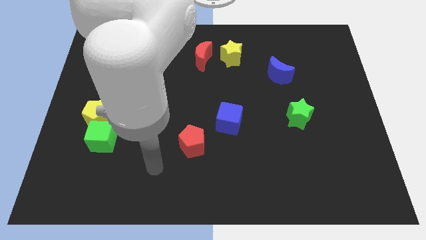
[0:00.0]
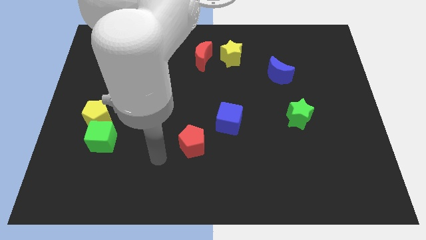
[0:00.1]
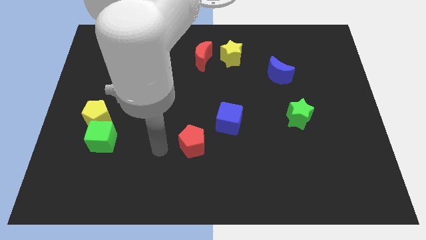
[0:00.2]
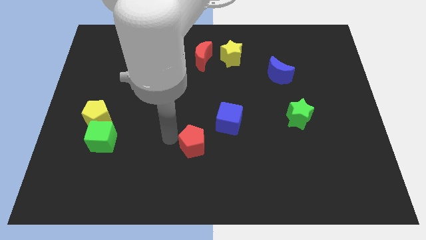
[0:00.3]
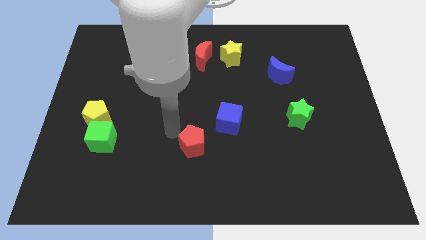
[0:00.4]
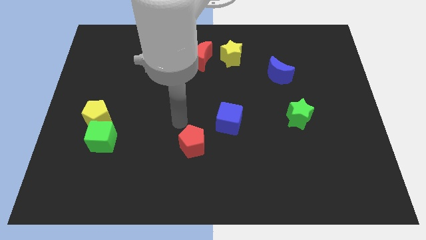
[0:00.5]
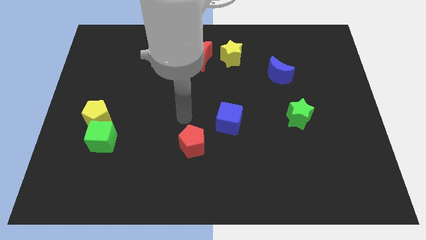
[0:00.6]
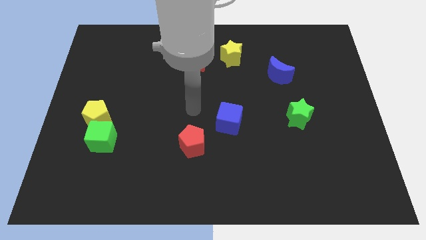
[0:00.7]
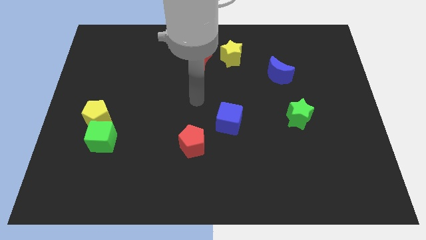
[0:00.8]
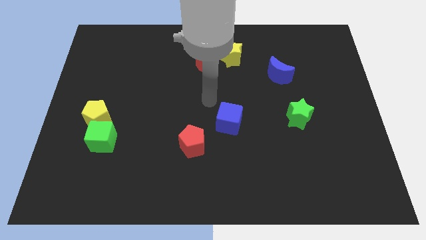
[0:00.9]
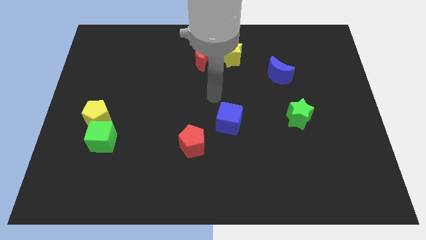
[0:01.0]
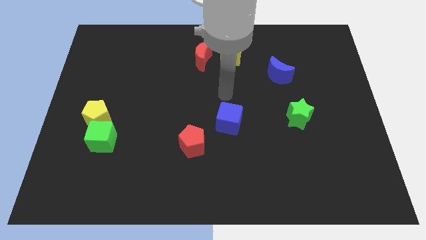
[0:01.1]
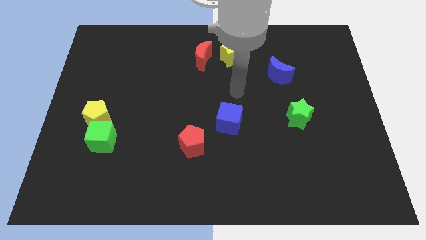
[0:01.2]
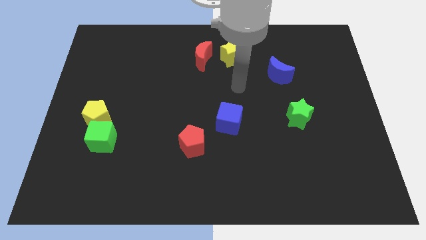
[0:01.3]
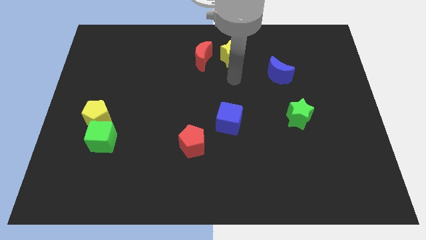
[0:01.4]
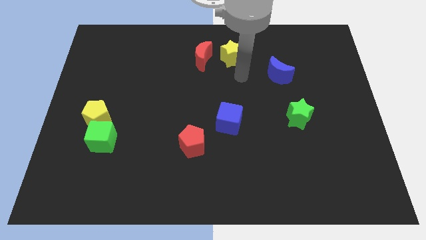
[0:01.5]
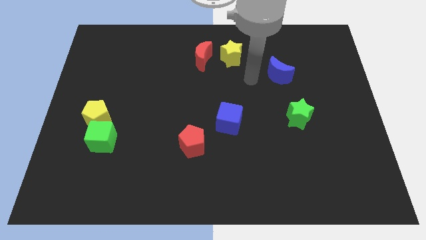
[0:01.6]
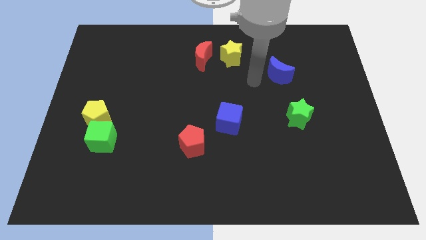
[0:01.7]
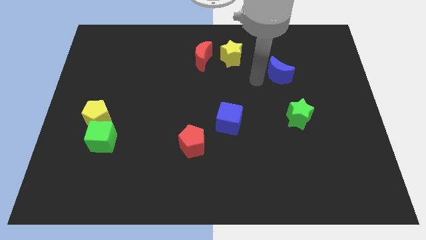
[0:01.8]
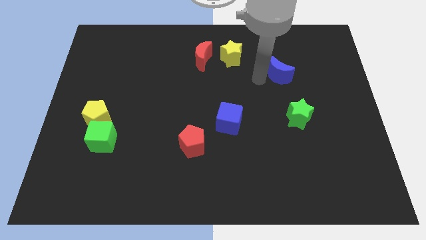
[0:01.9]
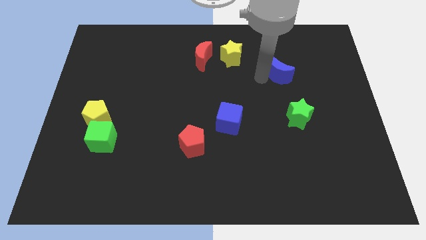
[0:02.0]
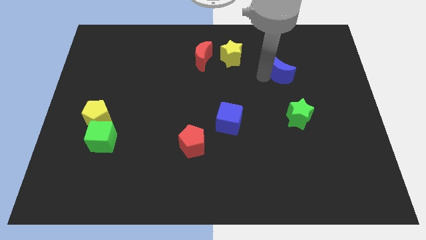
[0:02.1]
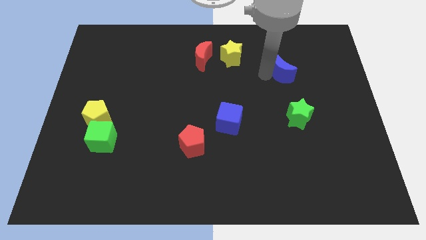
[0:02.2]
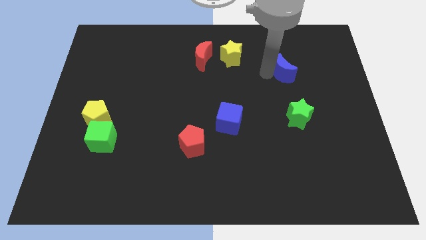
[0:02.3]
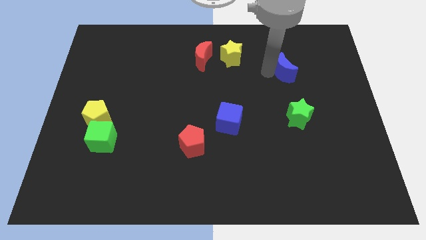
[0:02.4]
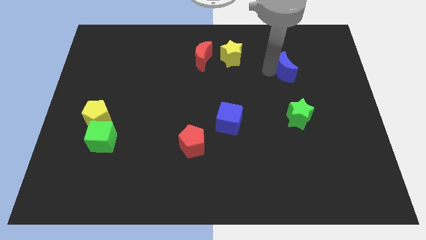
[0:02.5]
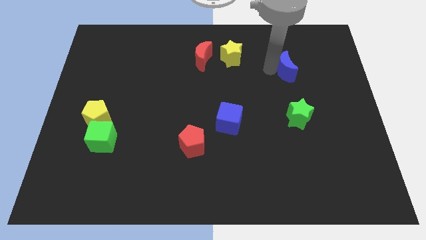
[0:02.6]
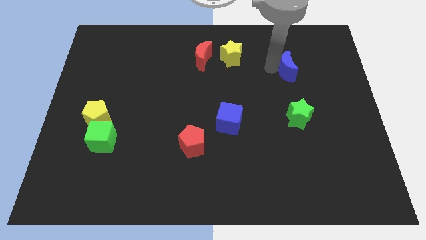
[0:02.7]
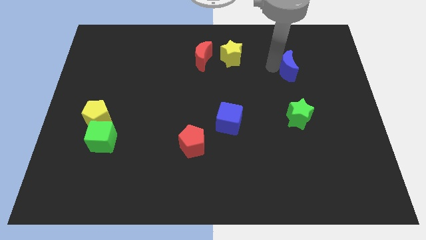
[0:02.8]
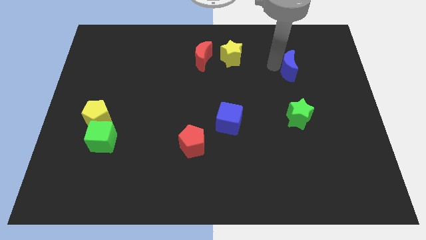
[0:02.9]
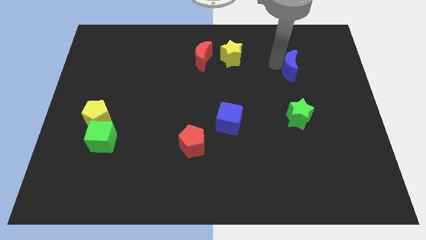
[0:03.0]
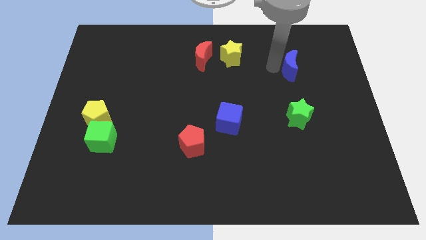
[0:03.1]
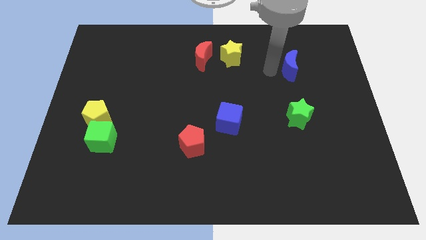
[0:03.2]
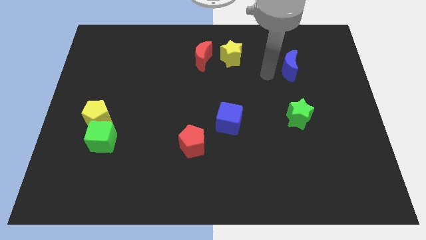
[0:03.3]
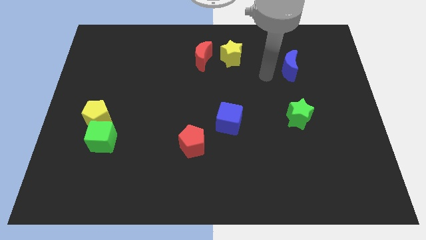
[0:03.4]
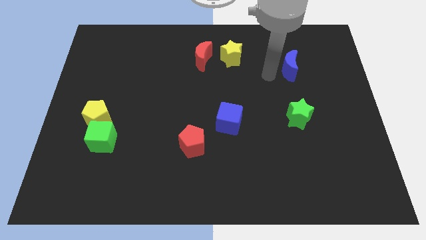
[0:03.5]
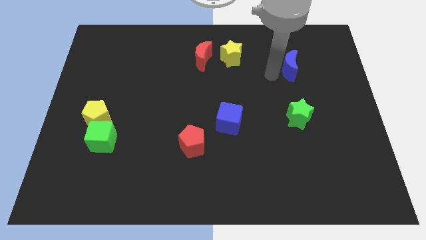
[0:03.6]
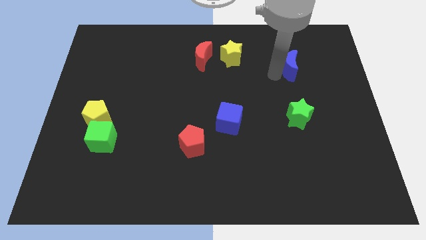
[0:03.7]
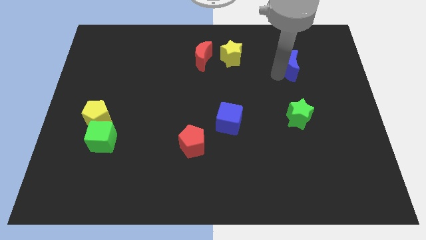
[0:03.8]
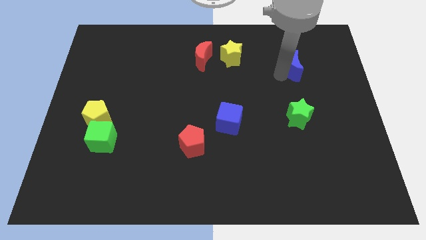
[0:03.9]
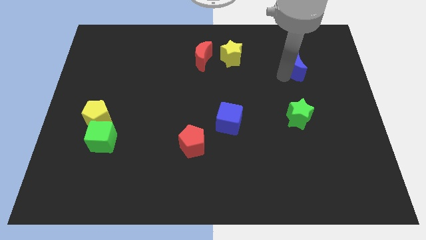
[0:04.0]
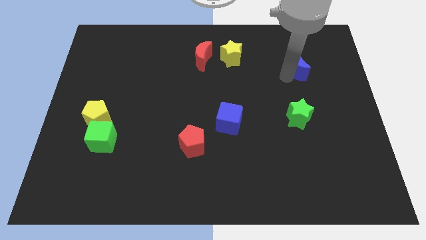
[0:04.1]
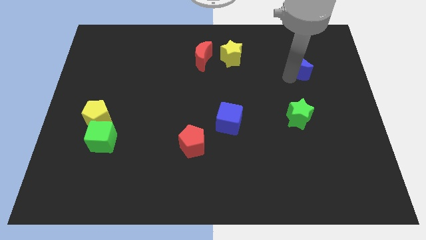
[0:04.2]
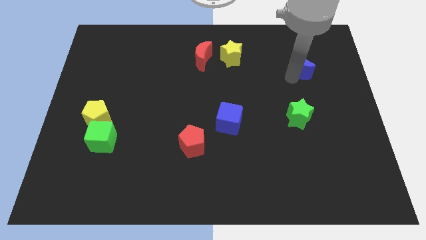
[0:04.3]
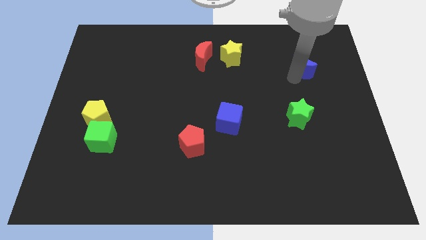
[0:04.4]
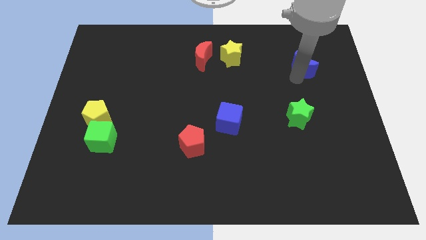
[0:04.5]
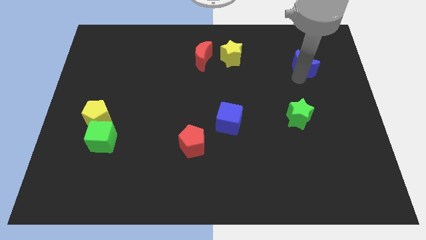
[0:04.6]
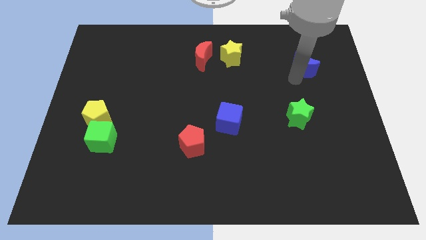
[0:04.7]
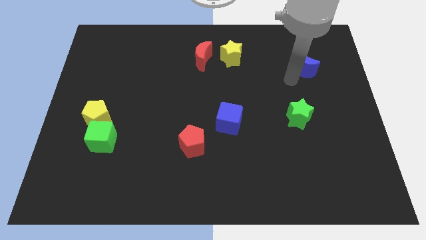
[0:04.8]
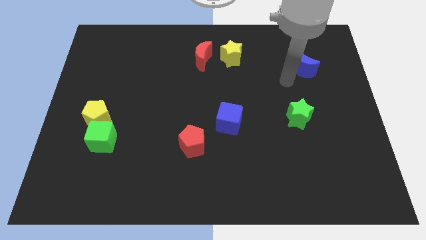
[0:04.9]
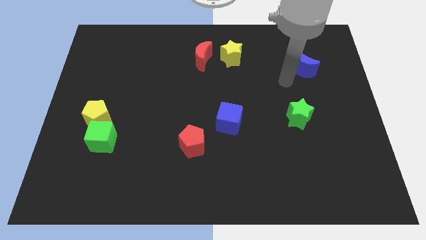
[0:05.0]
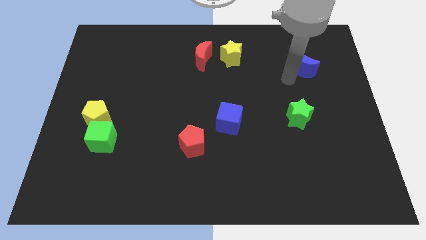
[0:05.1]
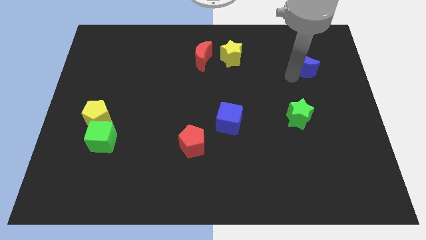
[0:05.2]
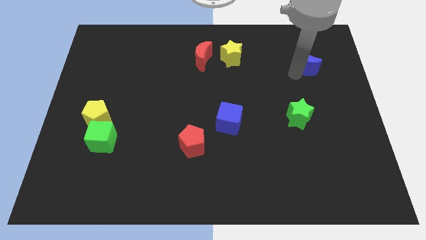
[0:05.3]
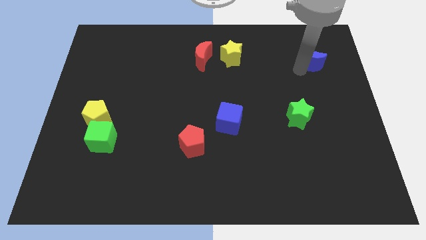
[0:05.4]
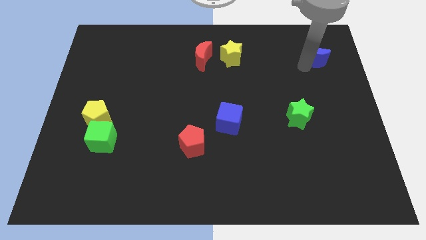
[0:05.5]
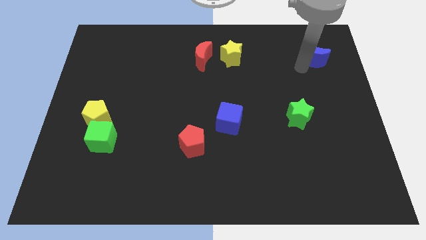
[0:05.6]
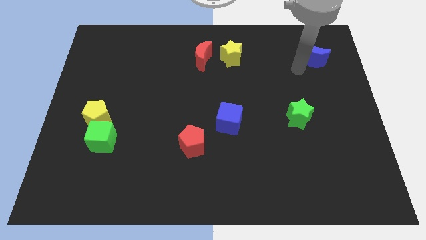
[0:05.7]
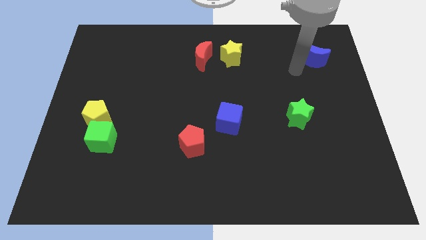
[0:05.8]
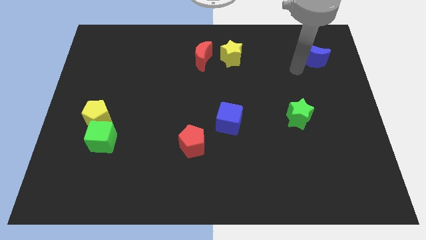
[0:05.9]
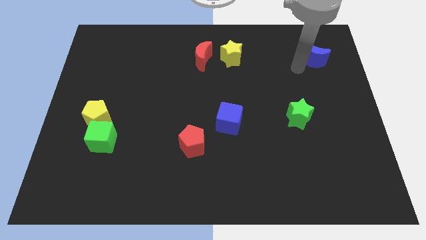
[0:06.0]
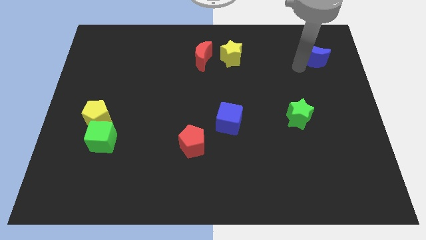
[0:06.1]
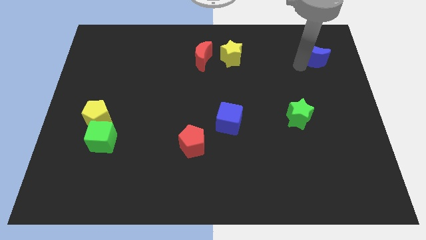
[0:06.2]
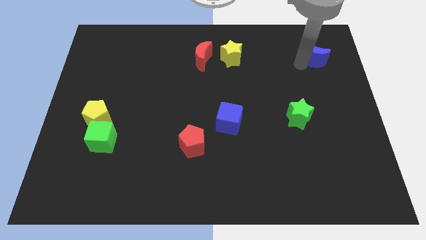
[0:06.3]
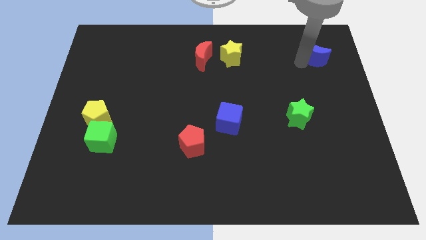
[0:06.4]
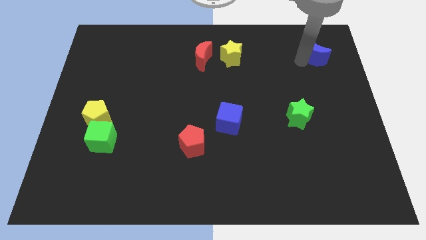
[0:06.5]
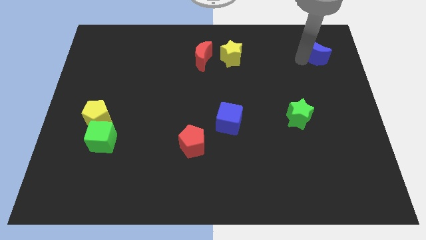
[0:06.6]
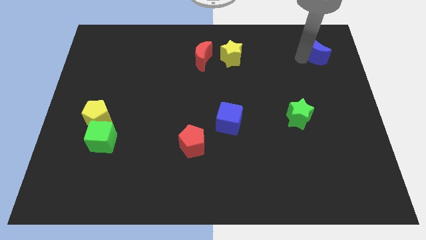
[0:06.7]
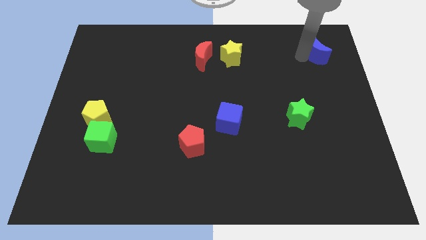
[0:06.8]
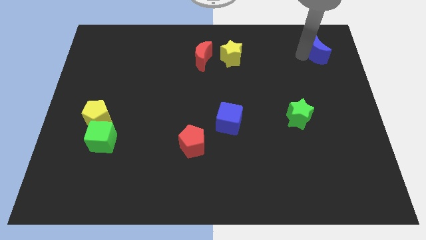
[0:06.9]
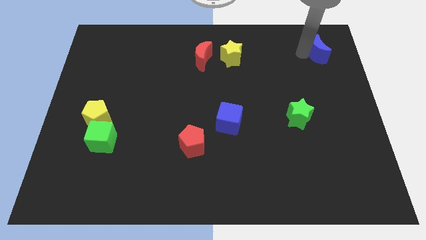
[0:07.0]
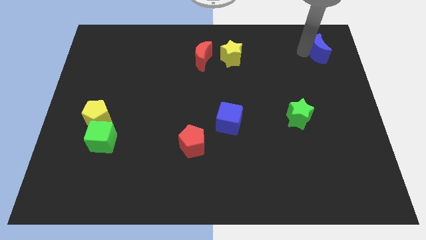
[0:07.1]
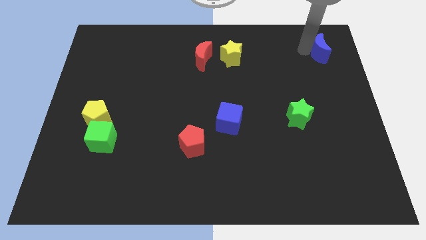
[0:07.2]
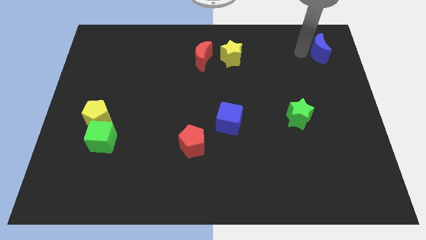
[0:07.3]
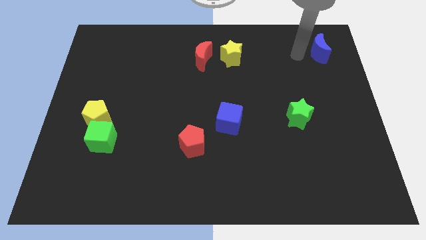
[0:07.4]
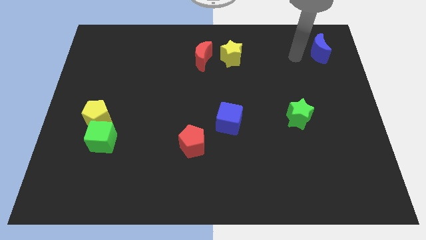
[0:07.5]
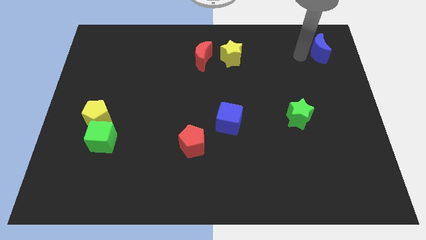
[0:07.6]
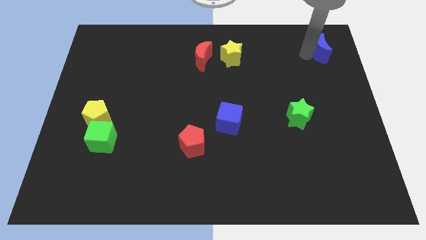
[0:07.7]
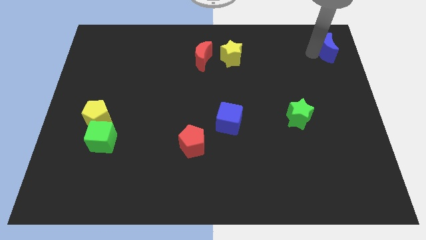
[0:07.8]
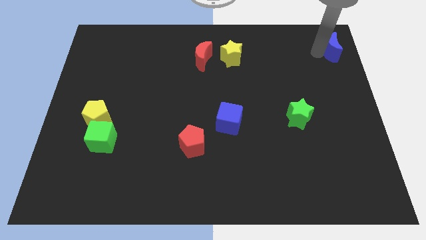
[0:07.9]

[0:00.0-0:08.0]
put the blue moon to the top right corner
